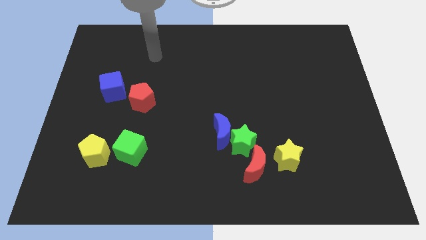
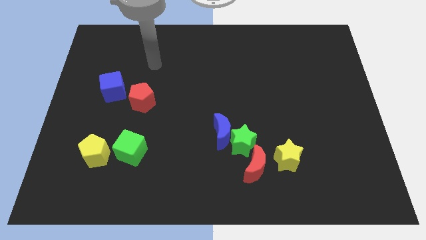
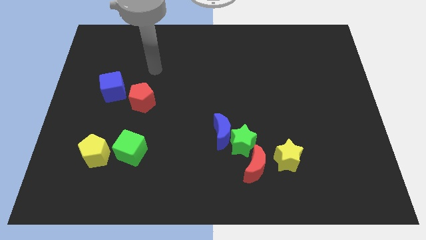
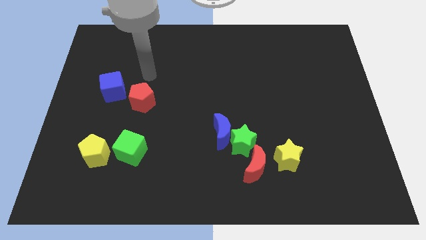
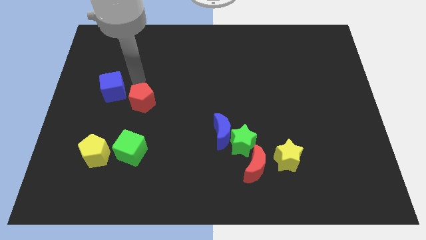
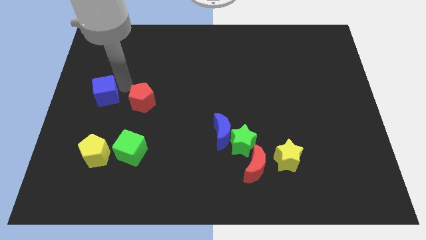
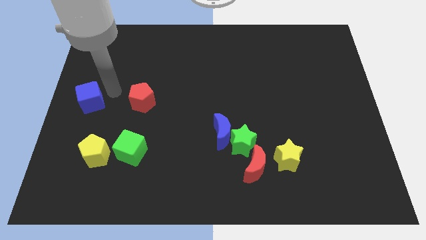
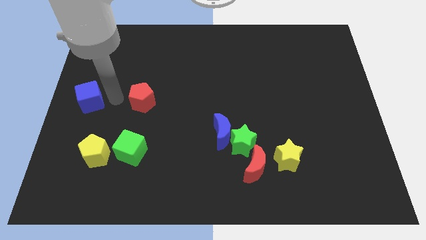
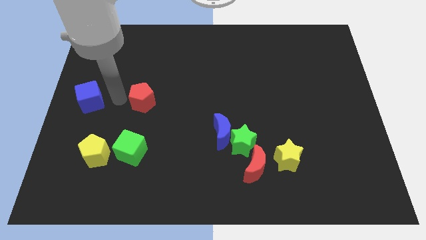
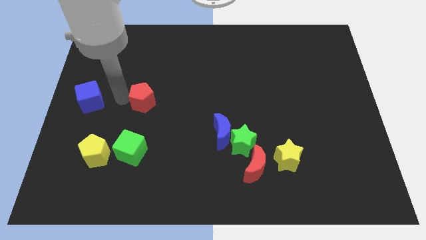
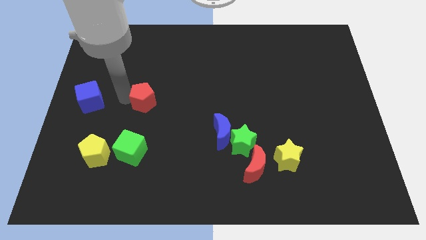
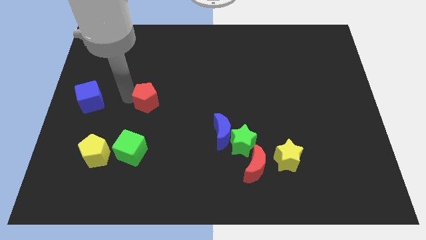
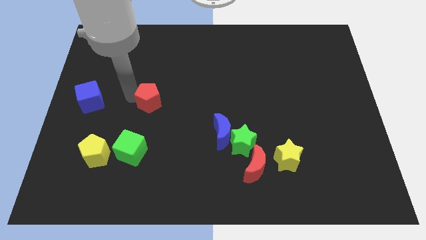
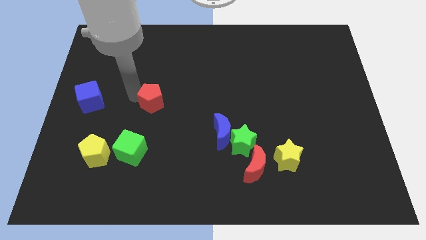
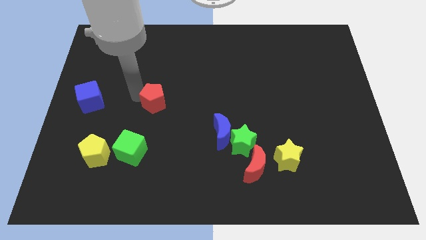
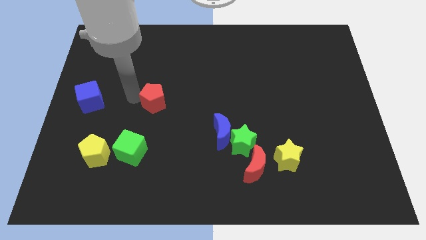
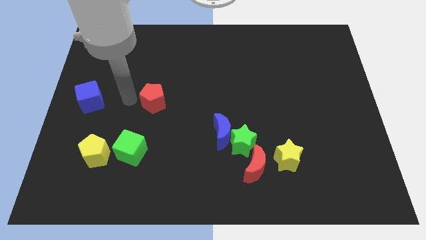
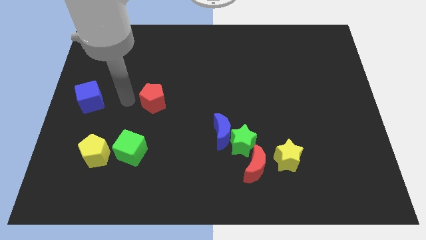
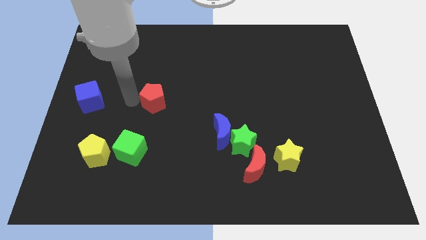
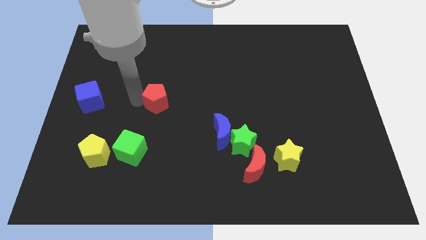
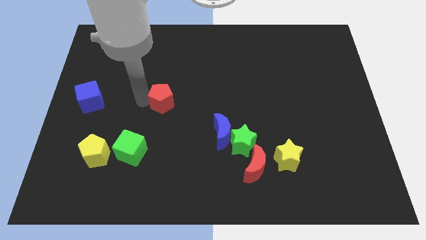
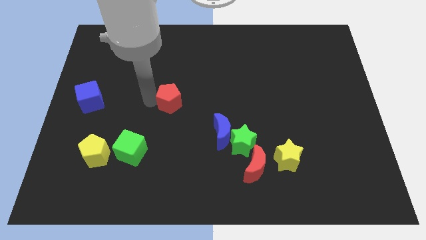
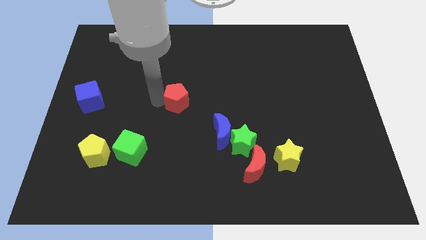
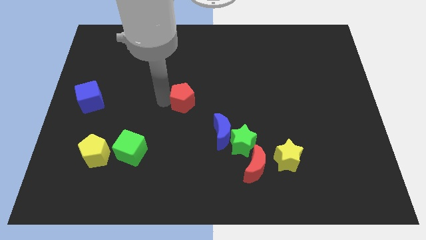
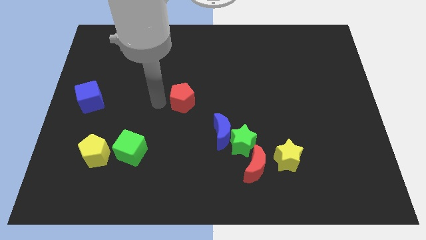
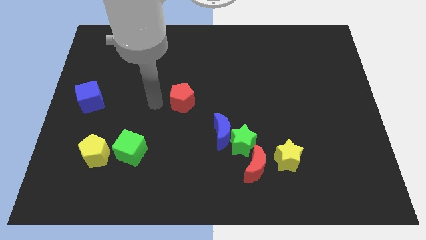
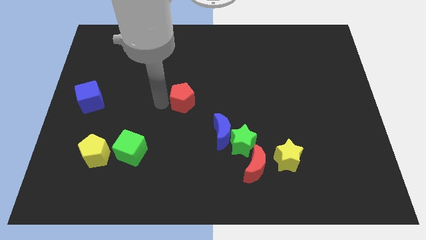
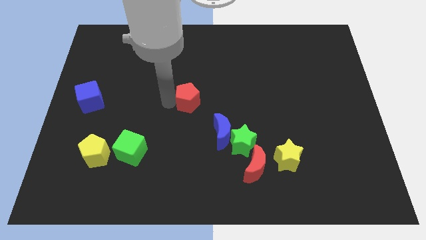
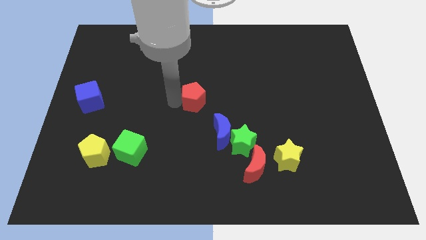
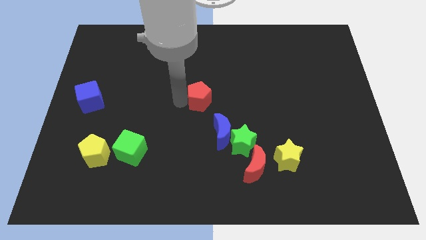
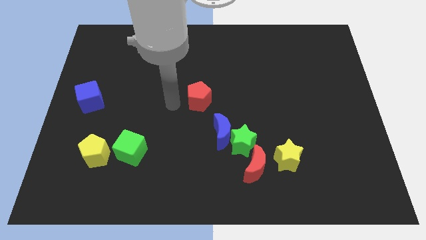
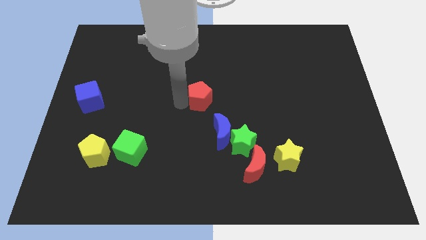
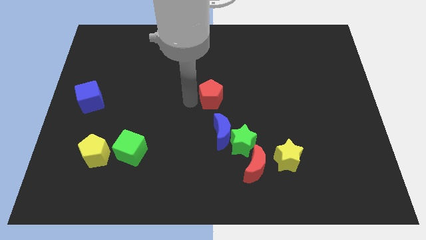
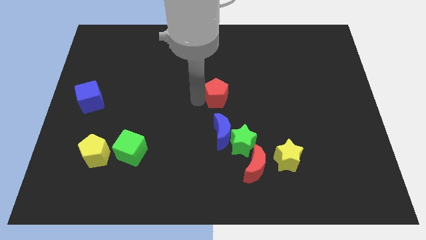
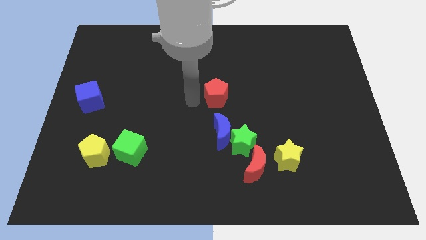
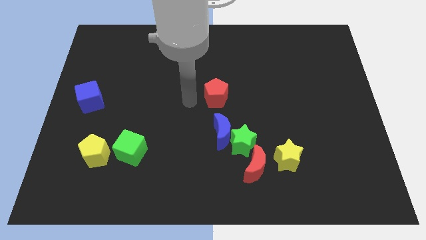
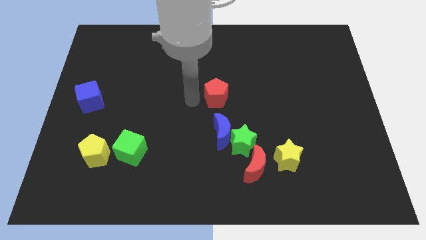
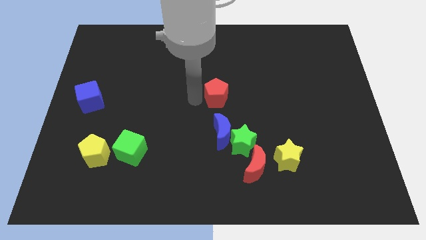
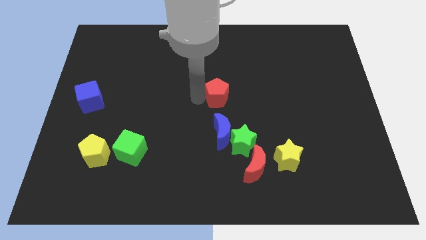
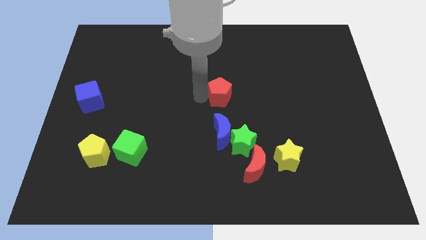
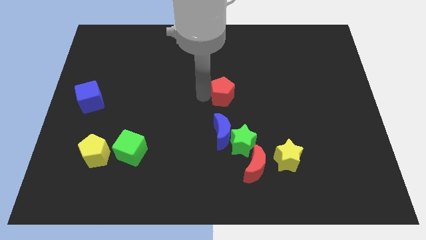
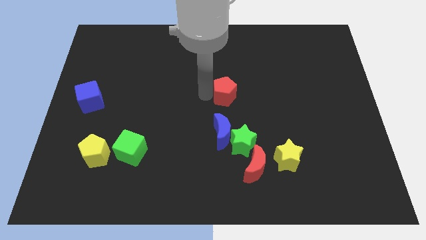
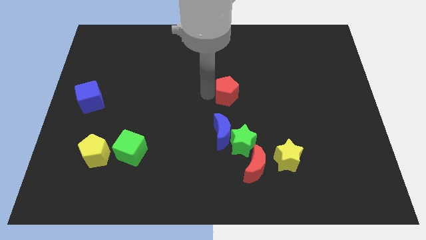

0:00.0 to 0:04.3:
slide the red pentagon to the right

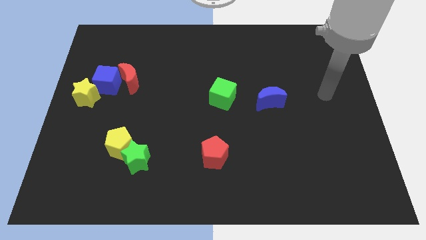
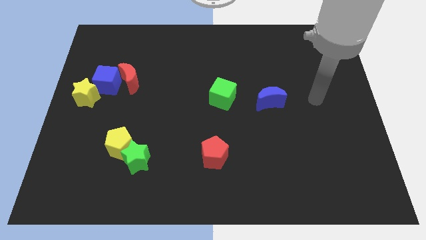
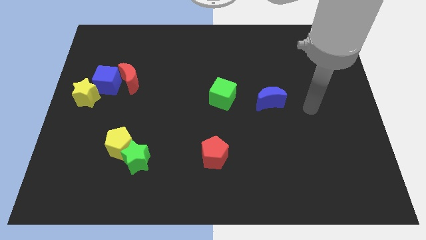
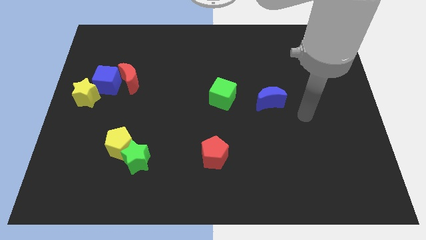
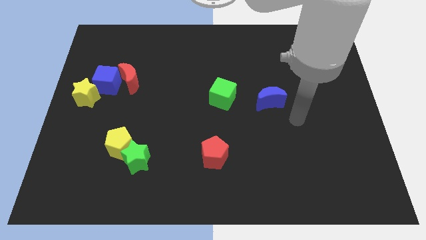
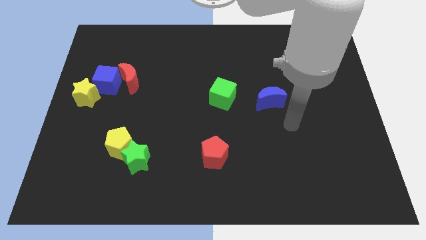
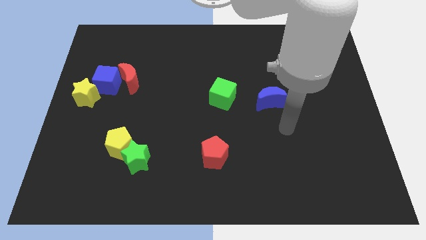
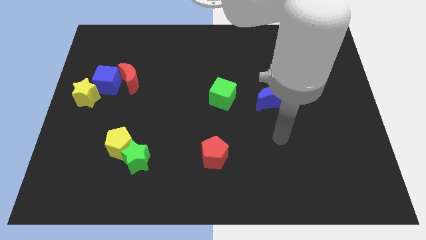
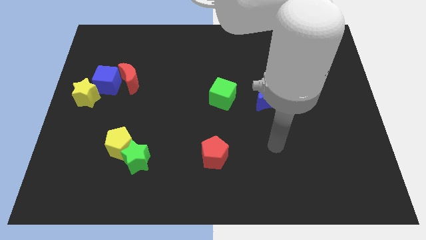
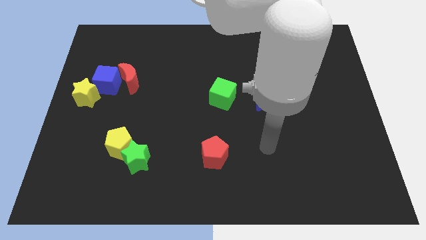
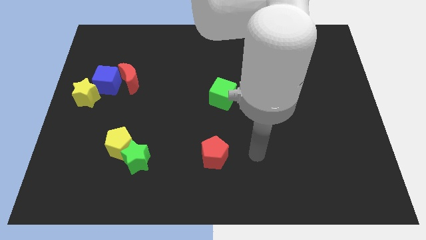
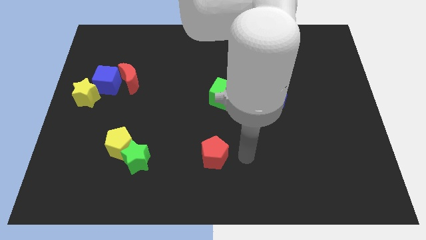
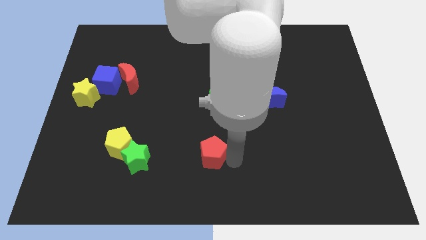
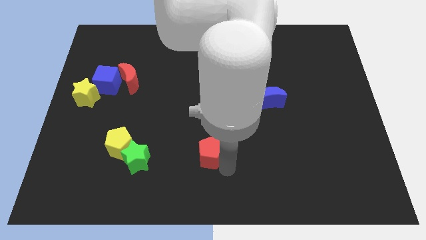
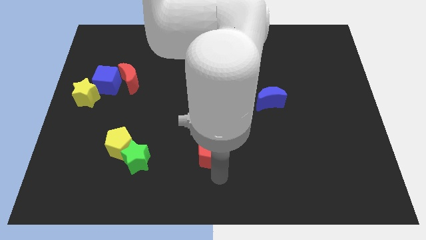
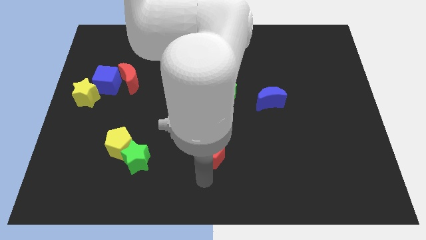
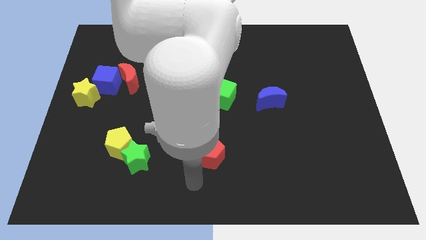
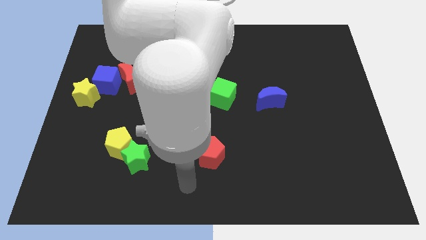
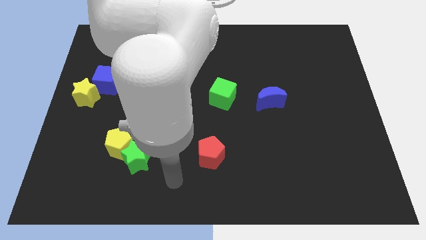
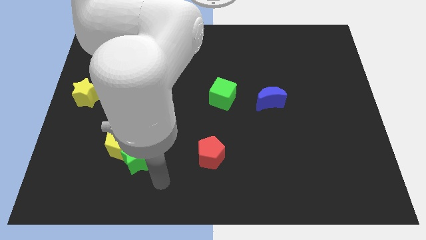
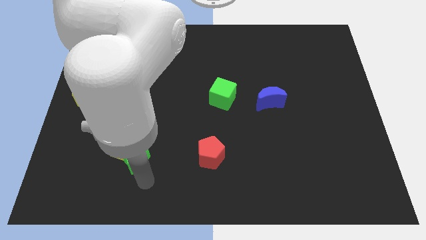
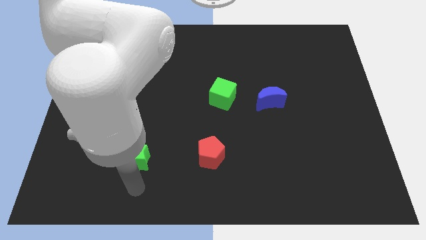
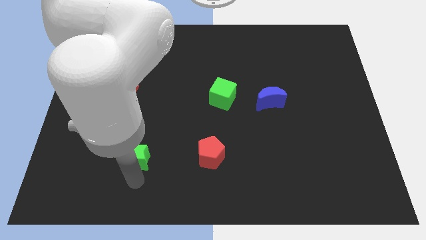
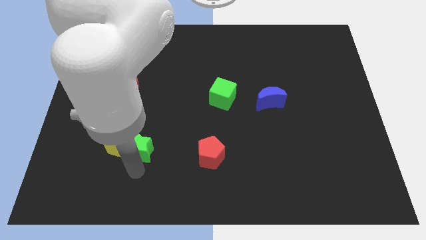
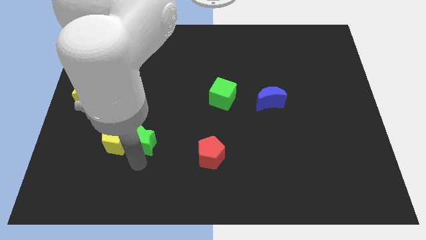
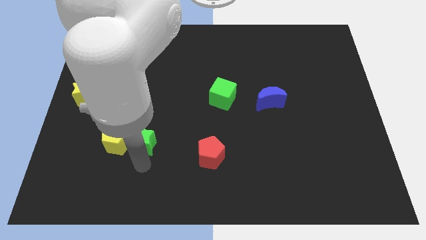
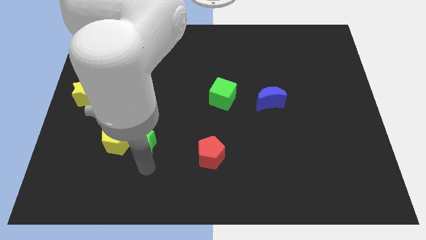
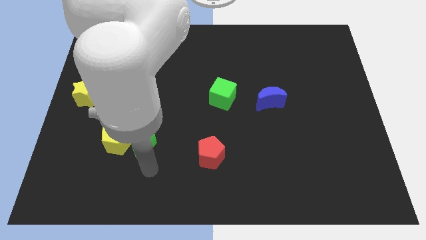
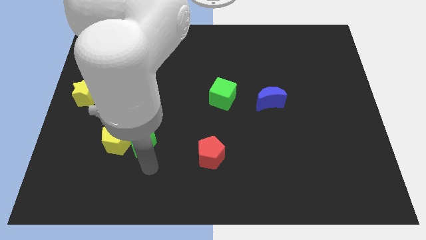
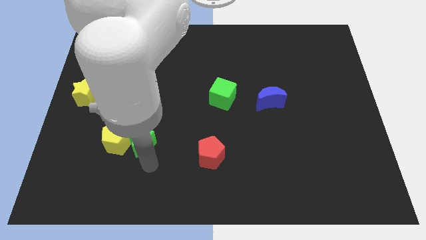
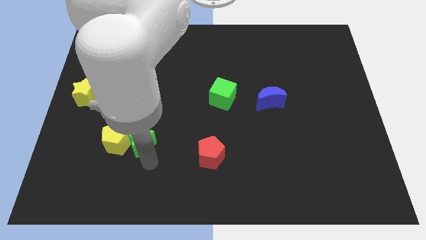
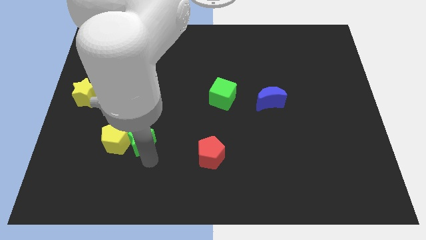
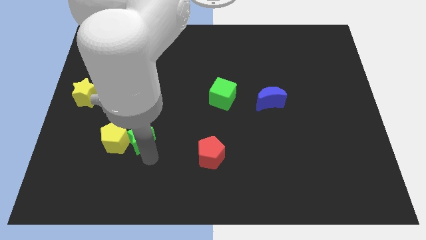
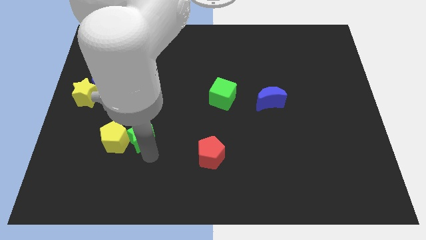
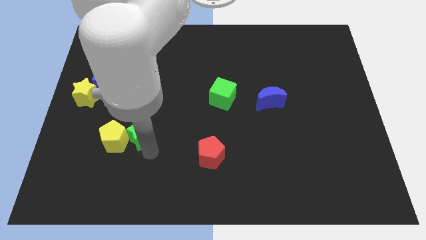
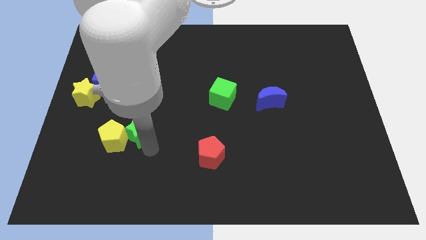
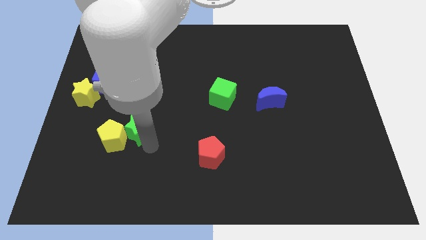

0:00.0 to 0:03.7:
push the green star somewhat upwards

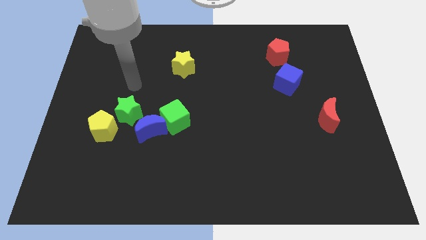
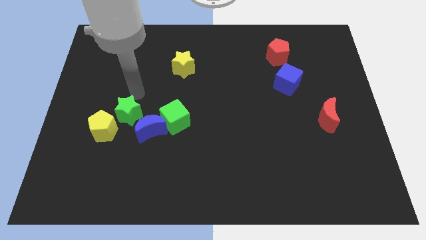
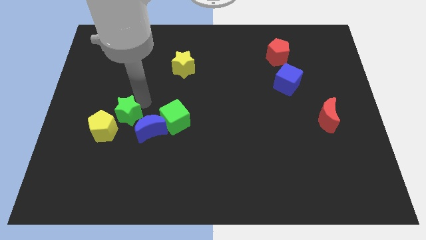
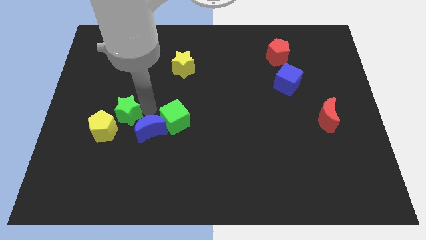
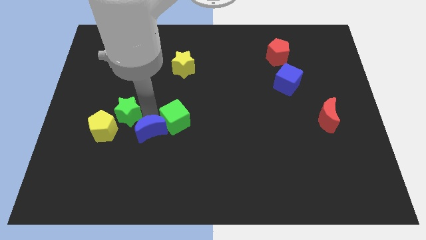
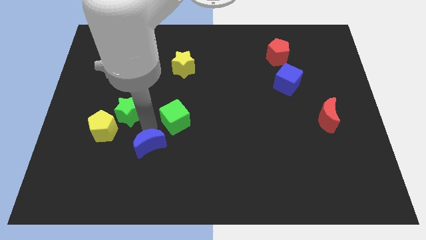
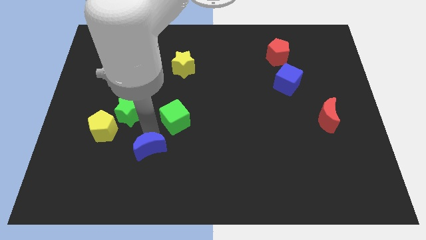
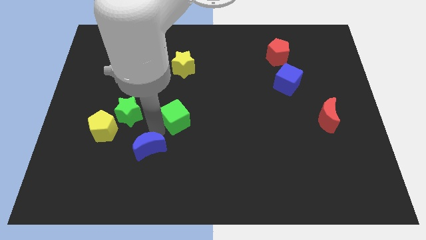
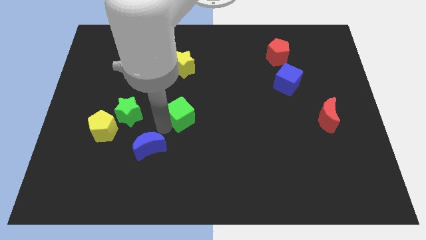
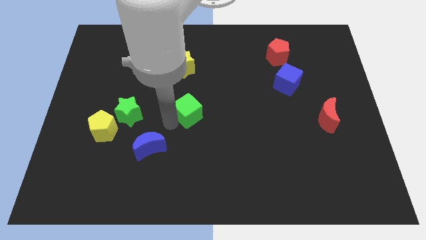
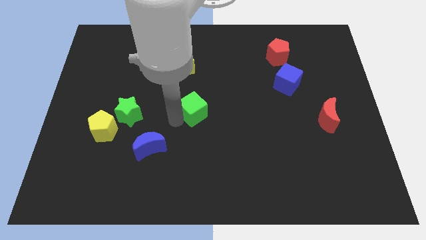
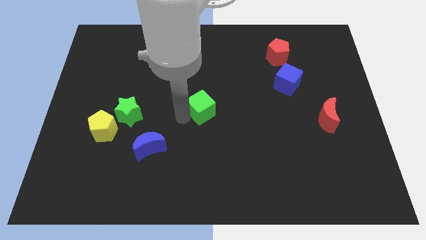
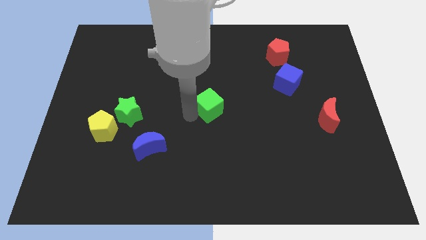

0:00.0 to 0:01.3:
push the green cube slightly up and then right
